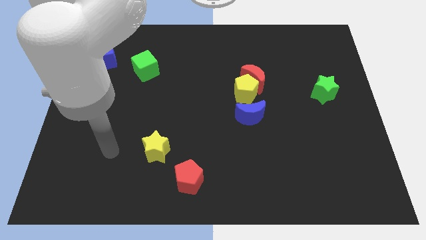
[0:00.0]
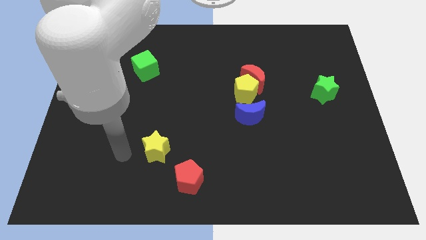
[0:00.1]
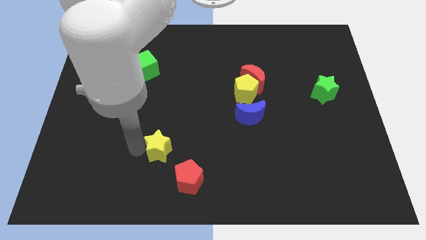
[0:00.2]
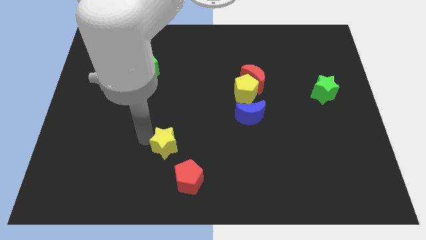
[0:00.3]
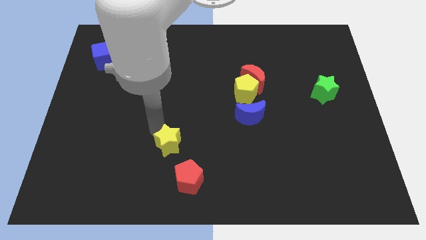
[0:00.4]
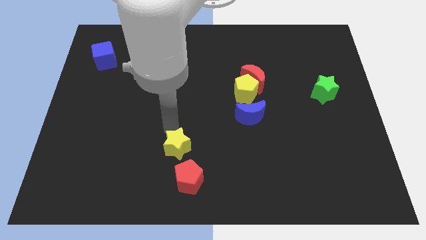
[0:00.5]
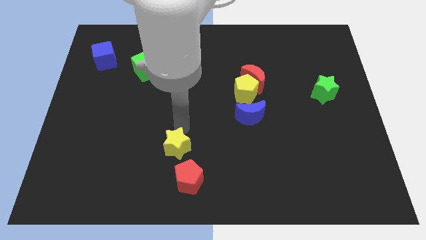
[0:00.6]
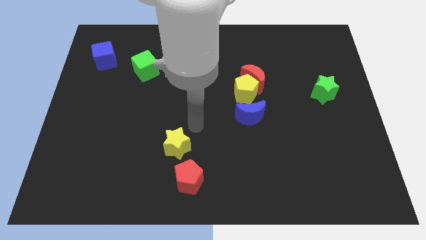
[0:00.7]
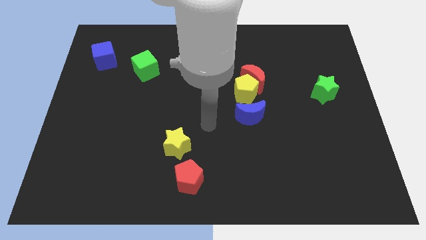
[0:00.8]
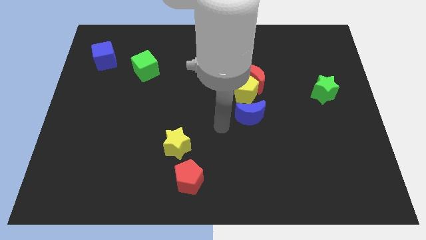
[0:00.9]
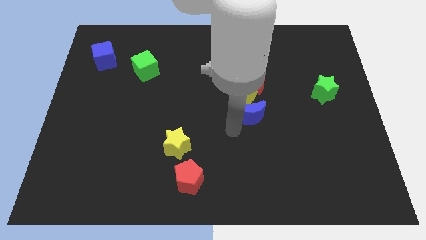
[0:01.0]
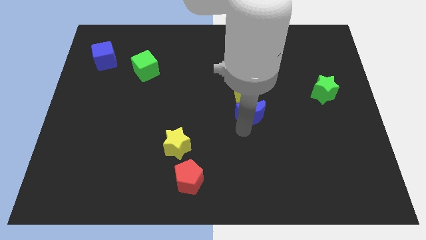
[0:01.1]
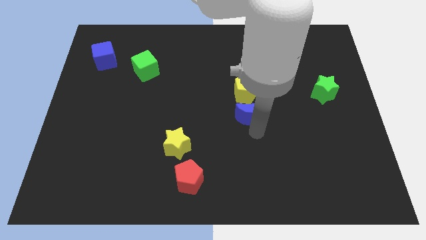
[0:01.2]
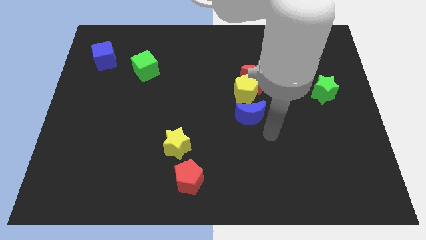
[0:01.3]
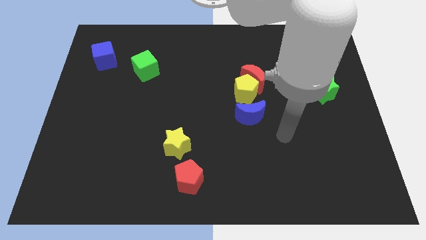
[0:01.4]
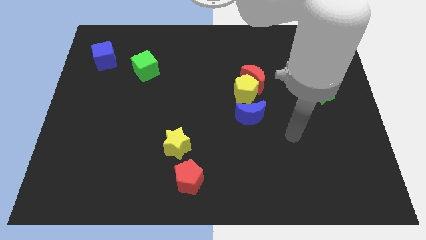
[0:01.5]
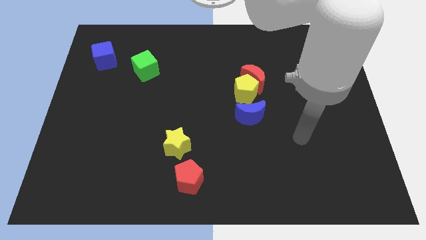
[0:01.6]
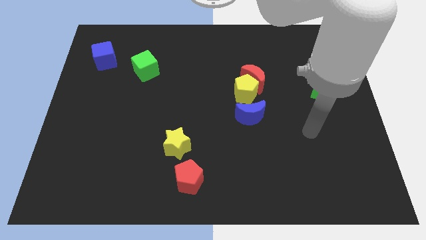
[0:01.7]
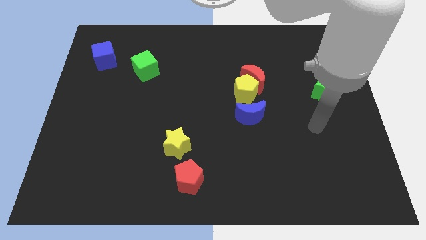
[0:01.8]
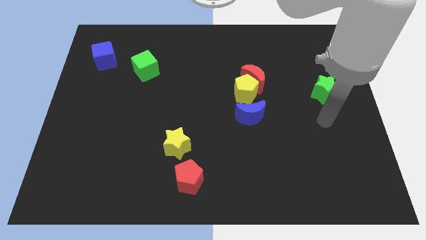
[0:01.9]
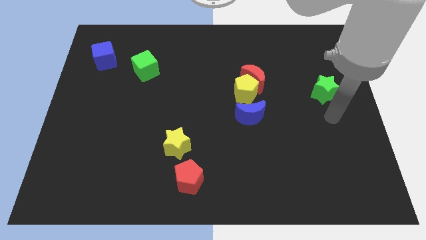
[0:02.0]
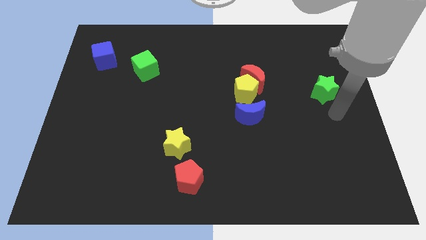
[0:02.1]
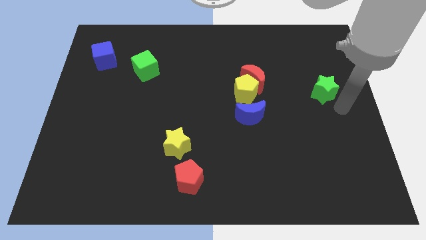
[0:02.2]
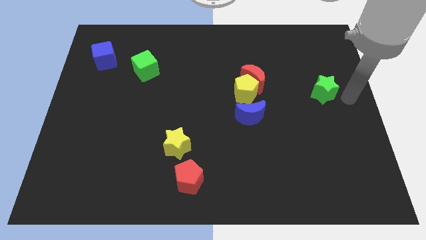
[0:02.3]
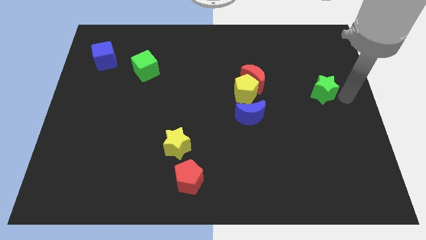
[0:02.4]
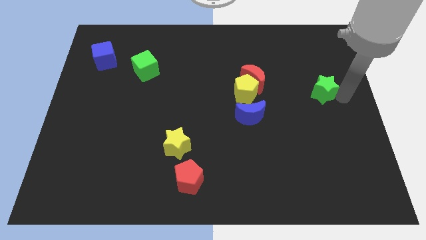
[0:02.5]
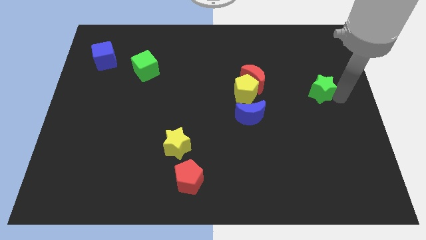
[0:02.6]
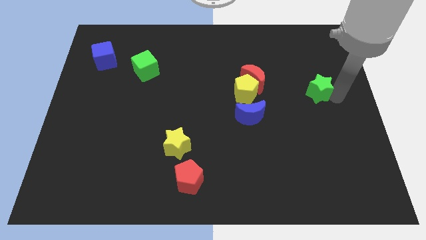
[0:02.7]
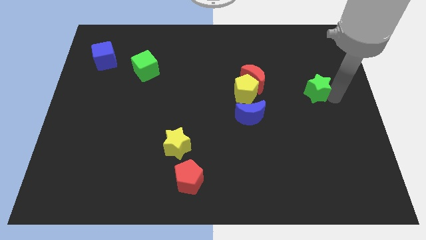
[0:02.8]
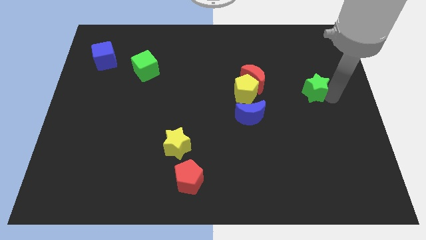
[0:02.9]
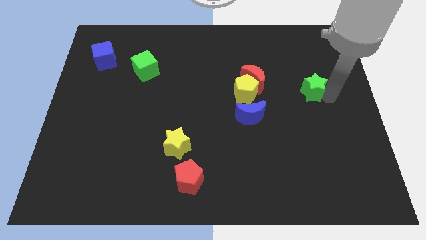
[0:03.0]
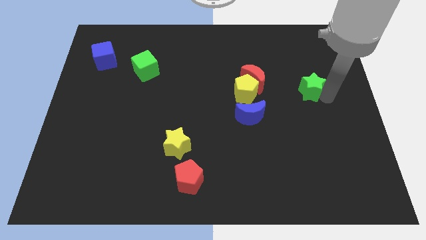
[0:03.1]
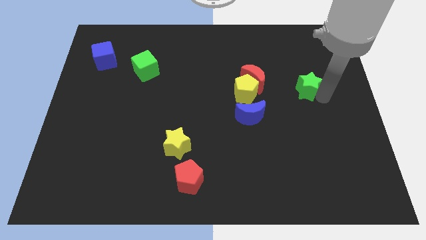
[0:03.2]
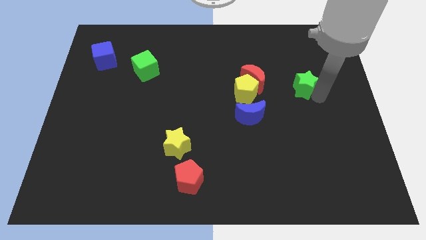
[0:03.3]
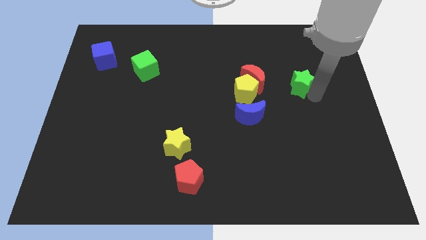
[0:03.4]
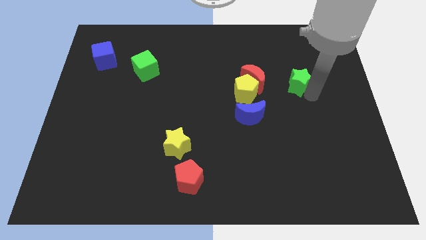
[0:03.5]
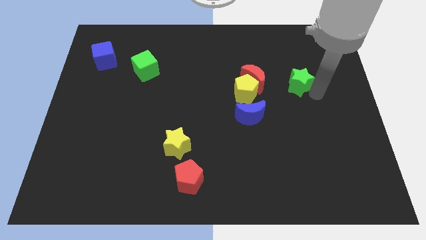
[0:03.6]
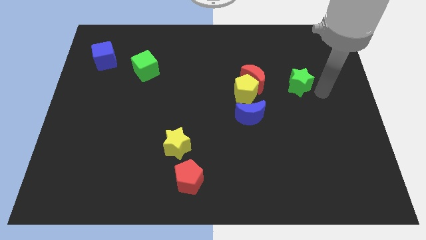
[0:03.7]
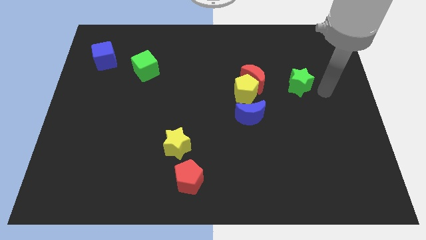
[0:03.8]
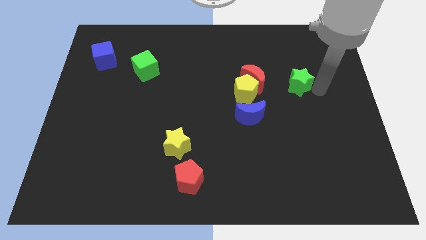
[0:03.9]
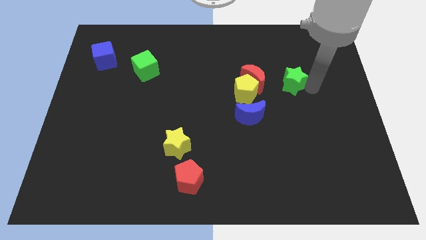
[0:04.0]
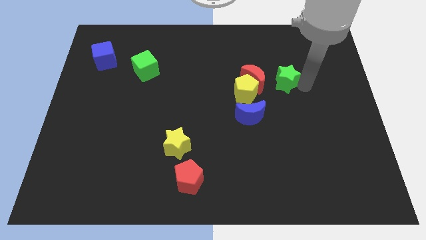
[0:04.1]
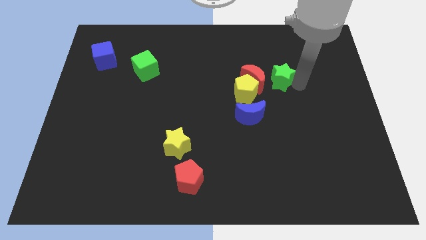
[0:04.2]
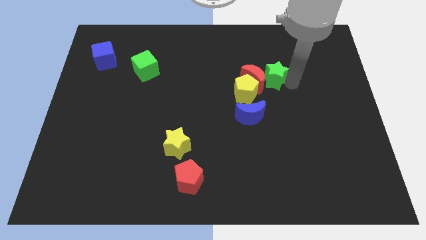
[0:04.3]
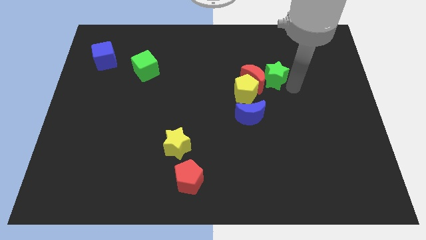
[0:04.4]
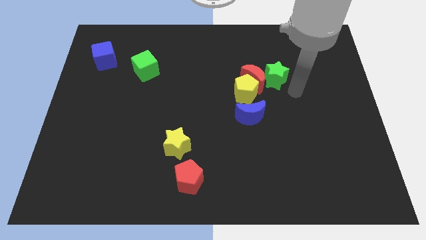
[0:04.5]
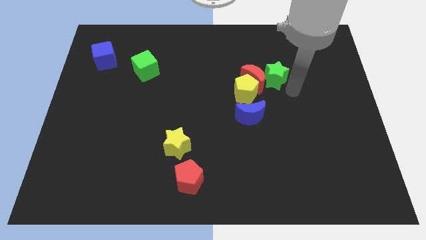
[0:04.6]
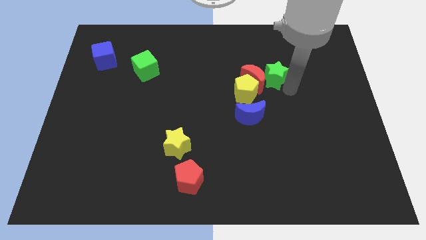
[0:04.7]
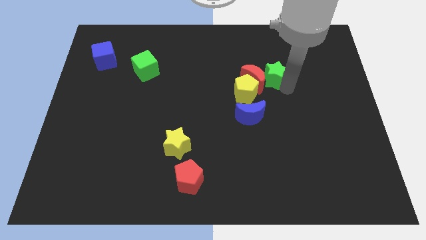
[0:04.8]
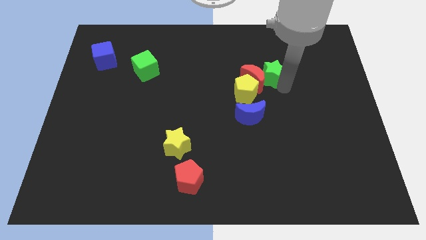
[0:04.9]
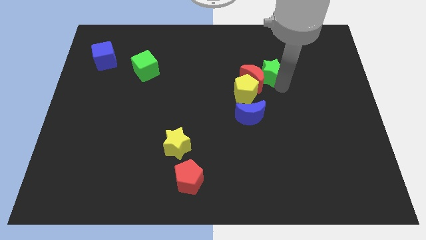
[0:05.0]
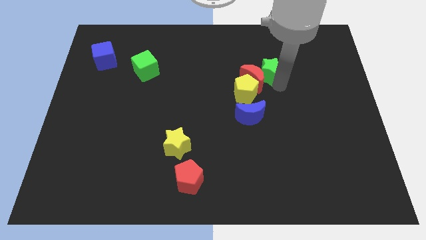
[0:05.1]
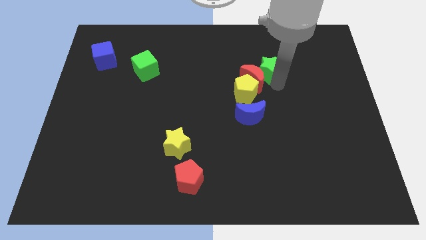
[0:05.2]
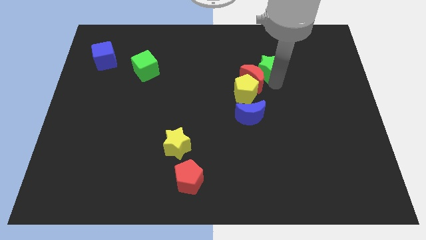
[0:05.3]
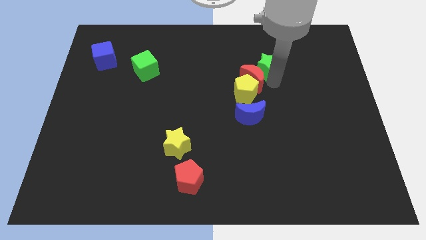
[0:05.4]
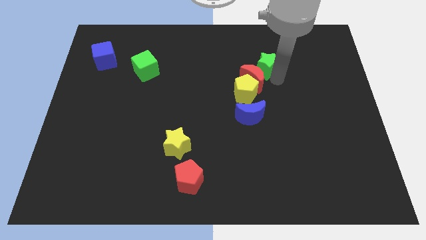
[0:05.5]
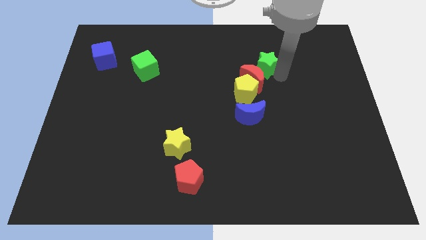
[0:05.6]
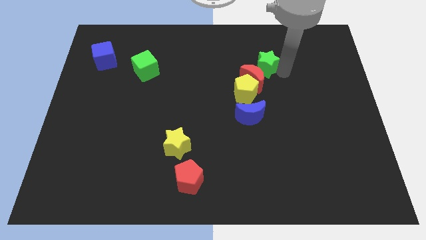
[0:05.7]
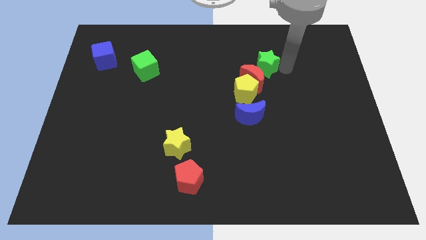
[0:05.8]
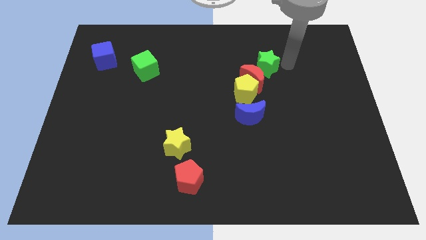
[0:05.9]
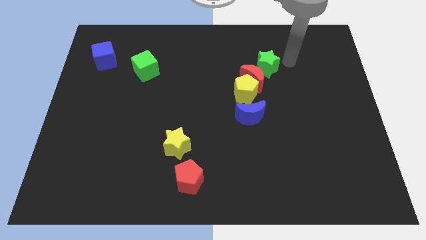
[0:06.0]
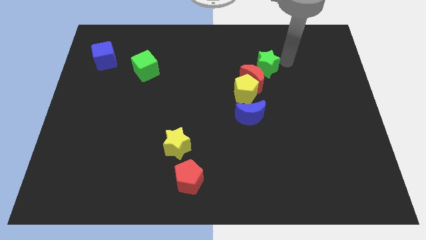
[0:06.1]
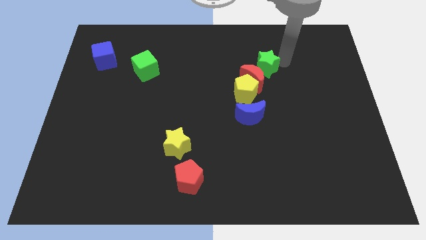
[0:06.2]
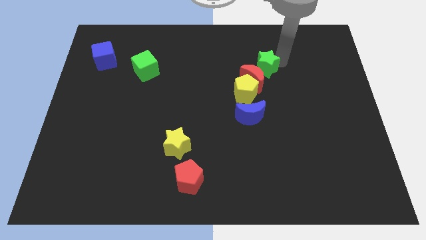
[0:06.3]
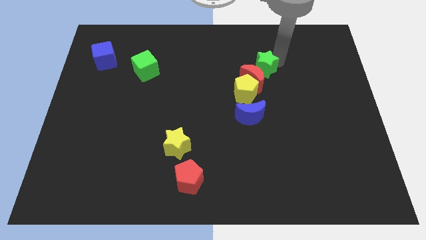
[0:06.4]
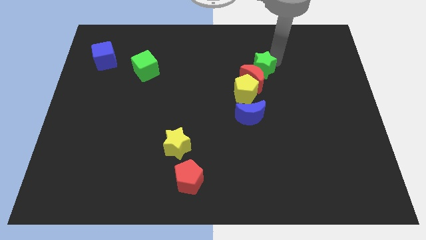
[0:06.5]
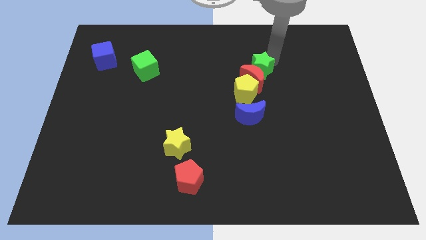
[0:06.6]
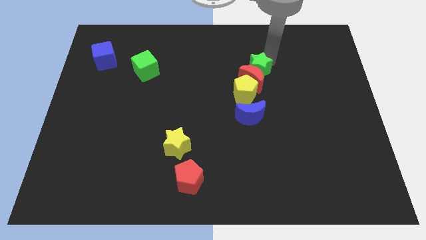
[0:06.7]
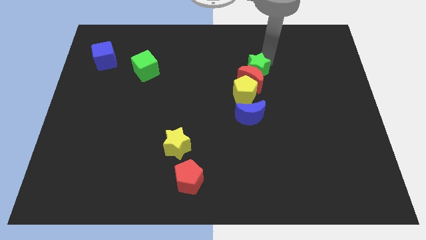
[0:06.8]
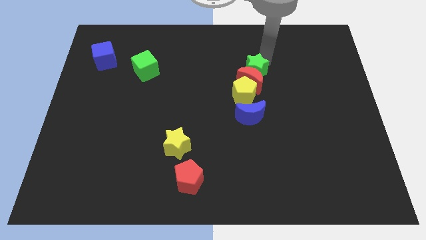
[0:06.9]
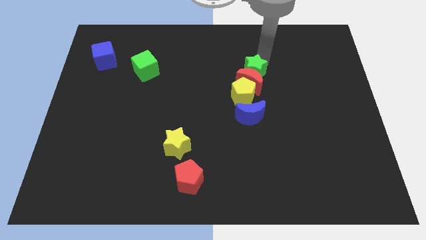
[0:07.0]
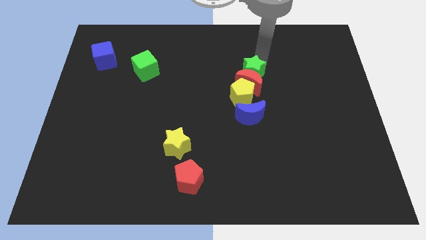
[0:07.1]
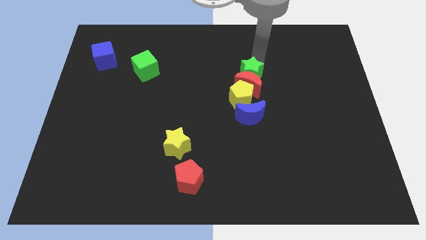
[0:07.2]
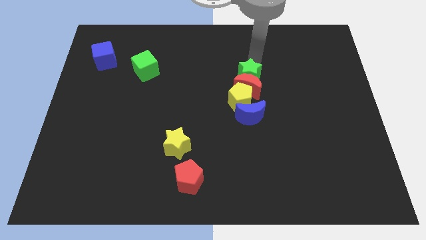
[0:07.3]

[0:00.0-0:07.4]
move the green star to the center
